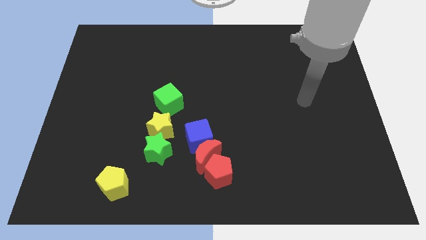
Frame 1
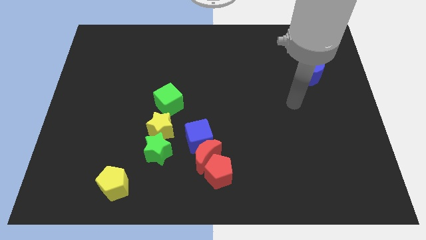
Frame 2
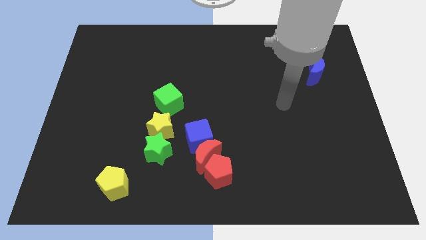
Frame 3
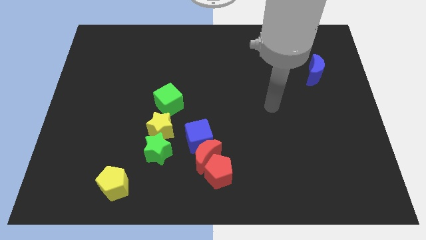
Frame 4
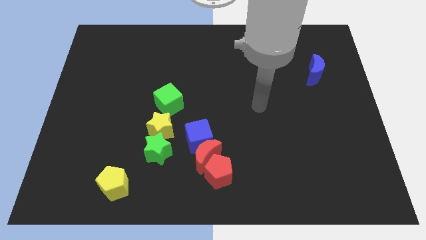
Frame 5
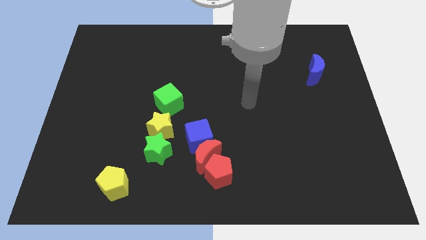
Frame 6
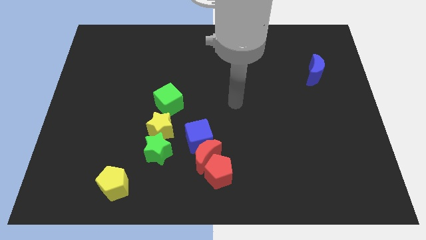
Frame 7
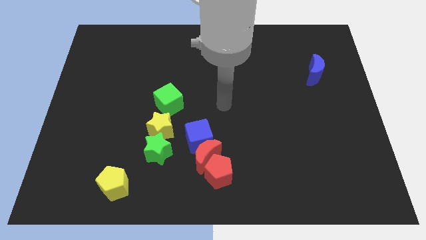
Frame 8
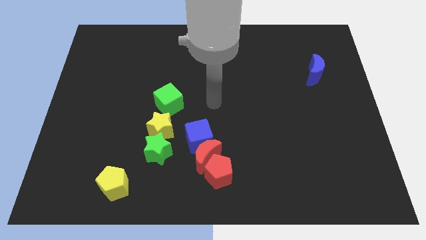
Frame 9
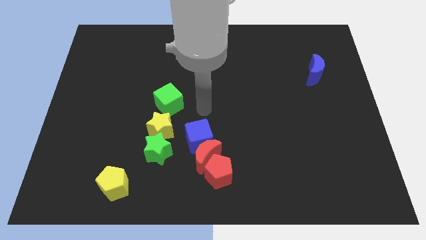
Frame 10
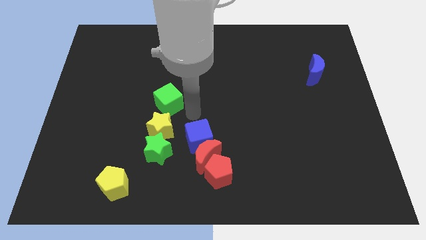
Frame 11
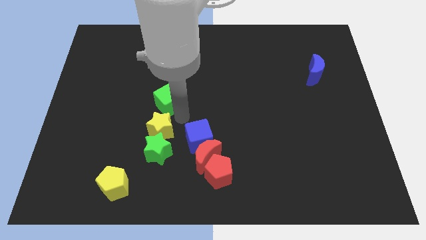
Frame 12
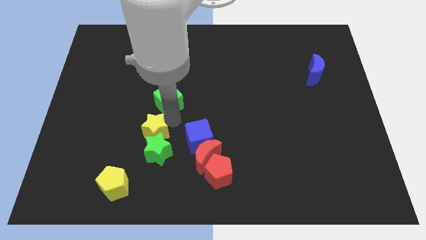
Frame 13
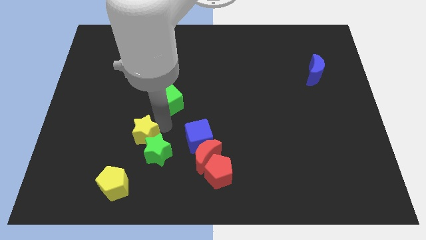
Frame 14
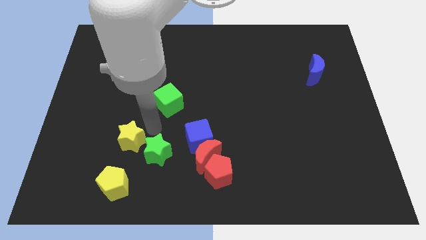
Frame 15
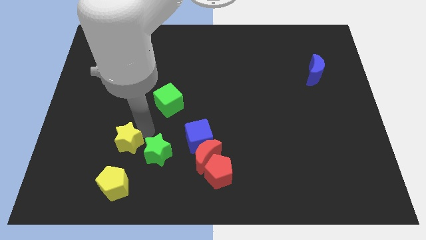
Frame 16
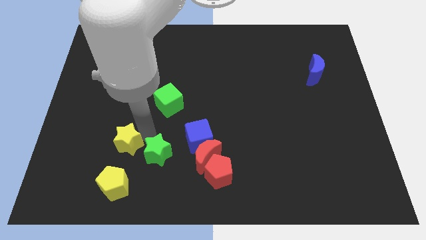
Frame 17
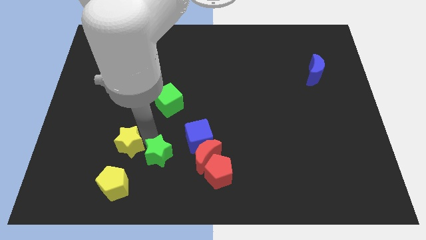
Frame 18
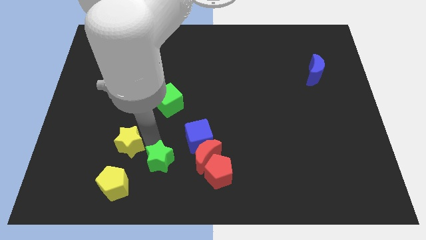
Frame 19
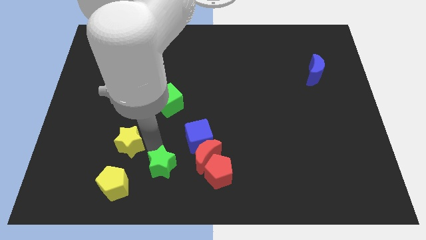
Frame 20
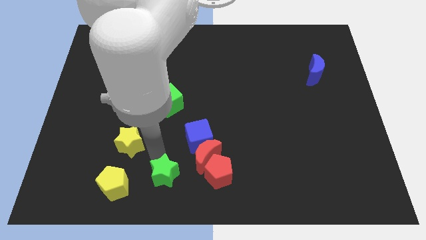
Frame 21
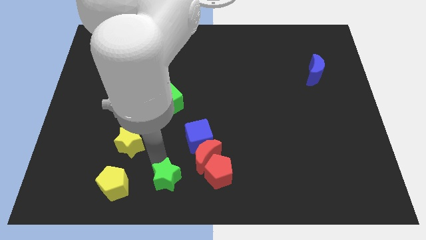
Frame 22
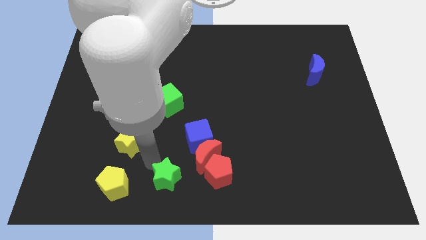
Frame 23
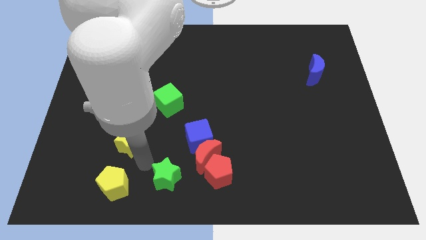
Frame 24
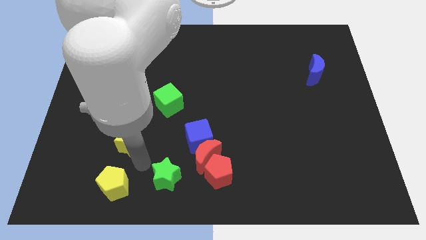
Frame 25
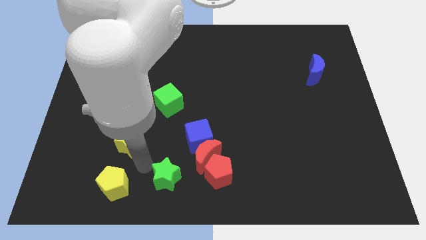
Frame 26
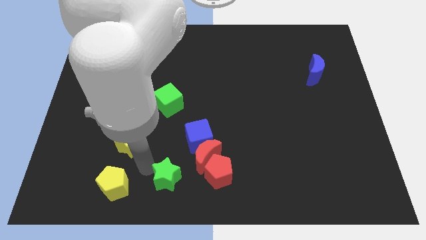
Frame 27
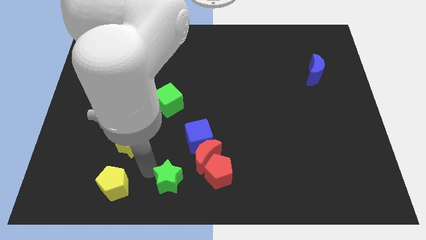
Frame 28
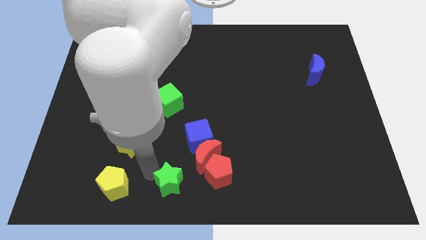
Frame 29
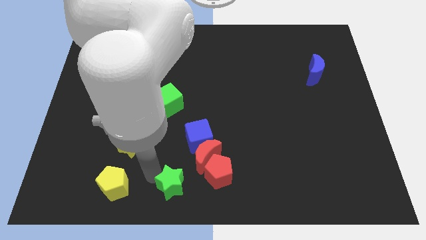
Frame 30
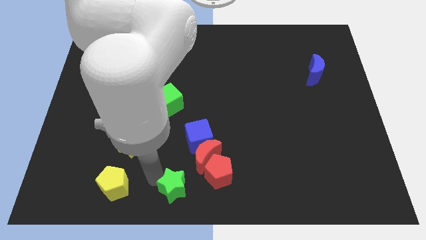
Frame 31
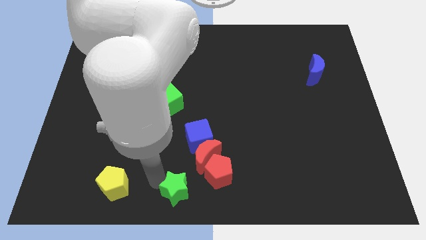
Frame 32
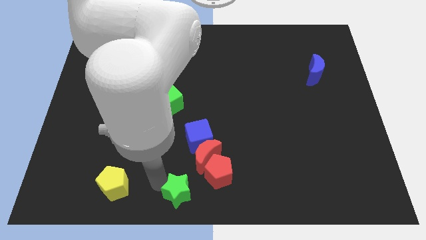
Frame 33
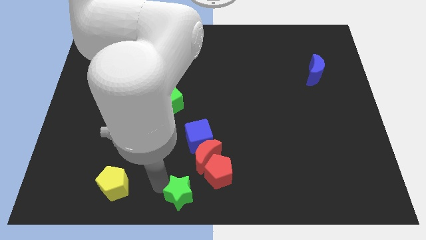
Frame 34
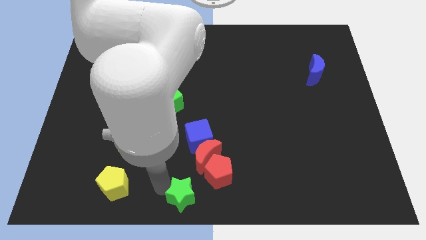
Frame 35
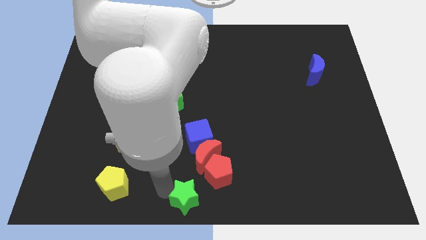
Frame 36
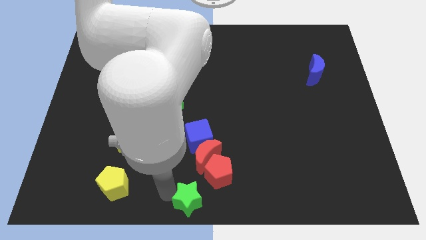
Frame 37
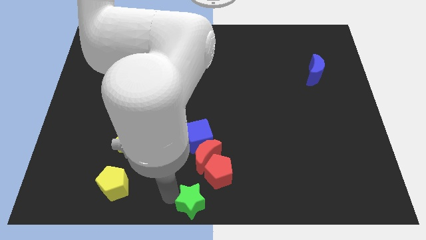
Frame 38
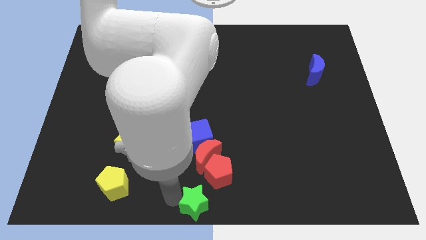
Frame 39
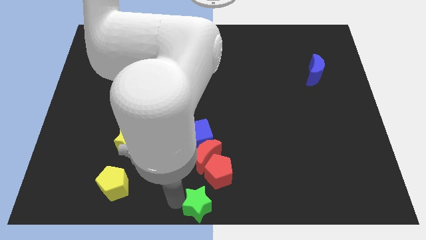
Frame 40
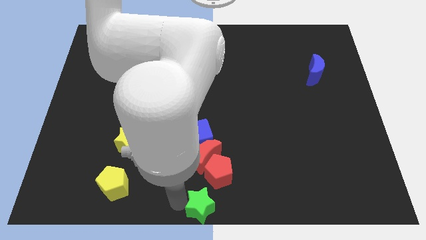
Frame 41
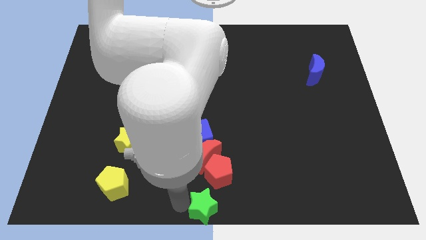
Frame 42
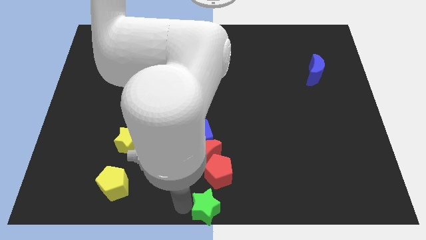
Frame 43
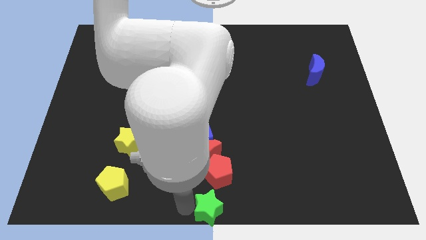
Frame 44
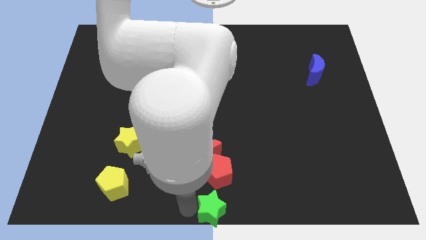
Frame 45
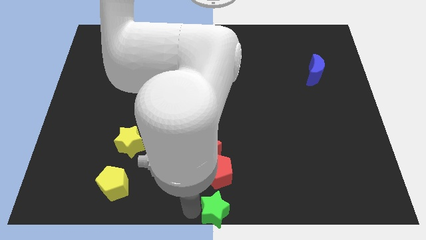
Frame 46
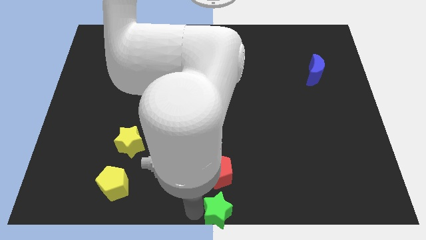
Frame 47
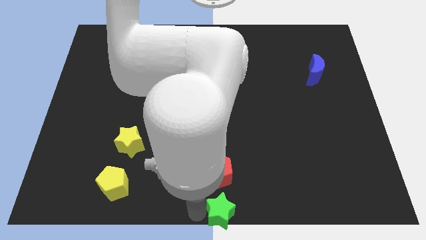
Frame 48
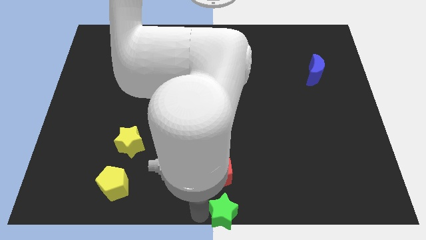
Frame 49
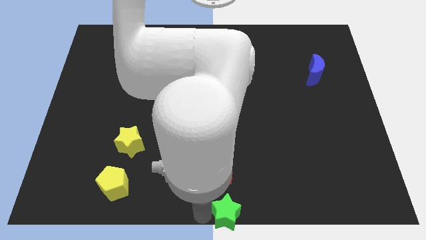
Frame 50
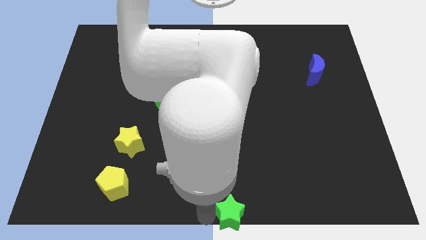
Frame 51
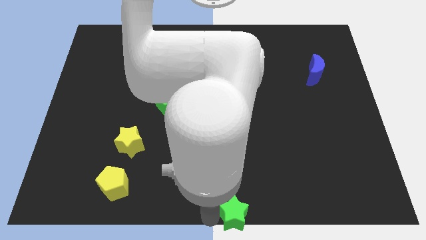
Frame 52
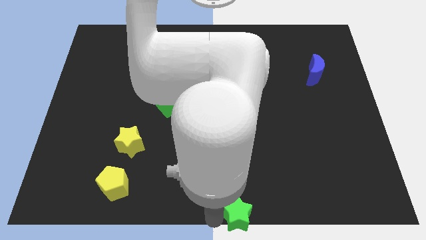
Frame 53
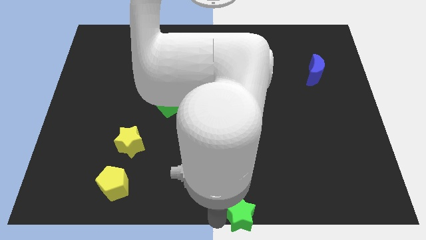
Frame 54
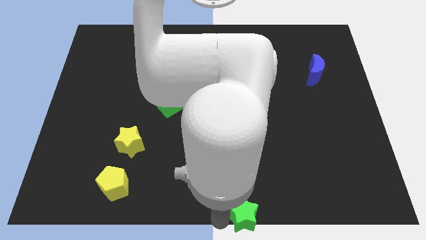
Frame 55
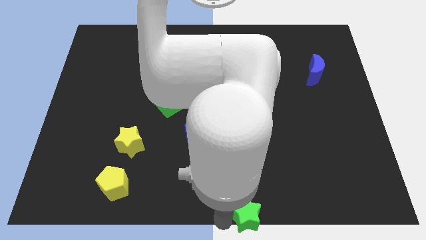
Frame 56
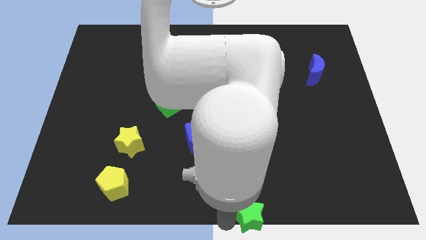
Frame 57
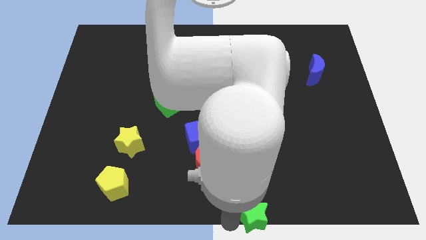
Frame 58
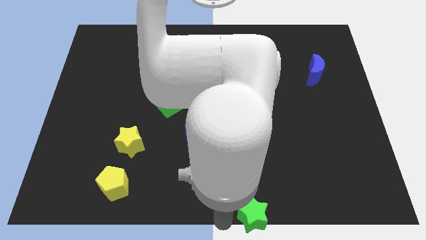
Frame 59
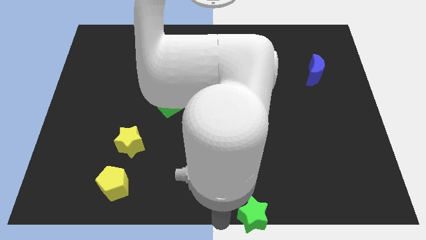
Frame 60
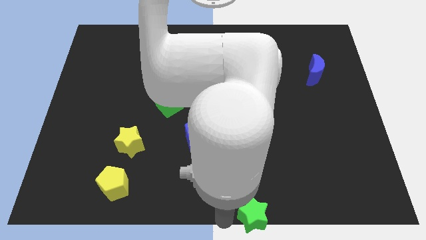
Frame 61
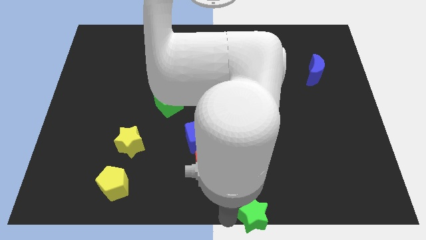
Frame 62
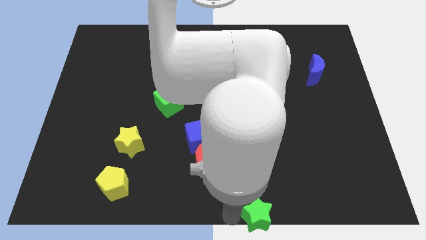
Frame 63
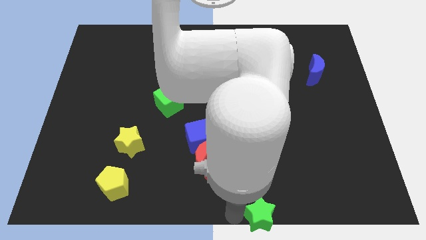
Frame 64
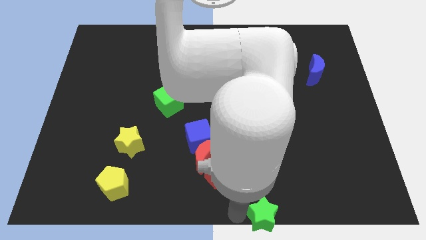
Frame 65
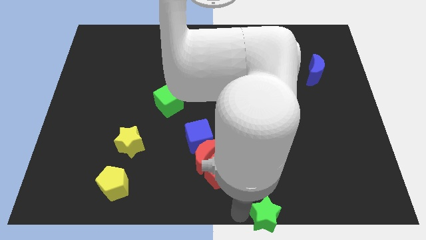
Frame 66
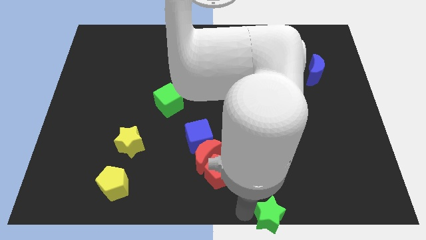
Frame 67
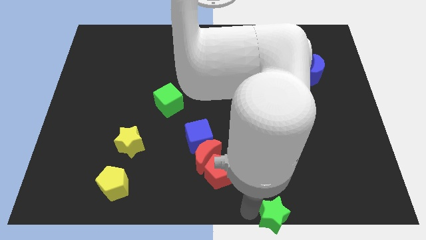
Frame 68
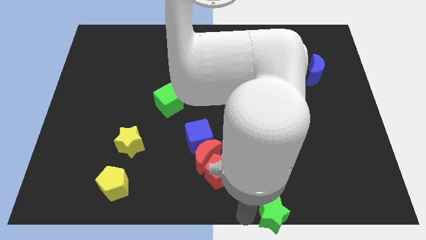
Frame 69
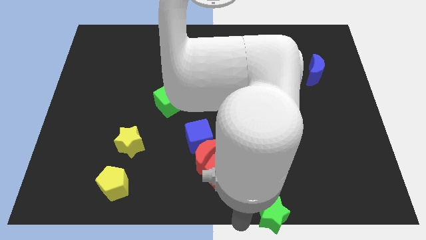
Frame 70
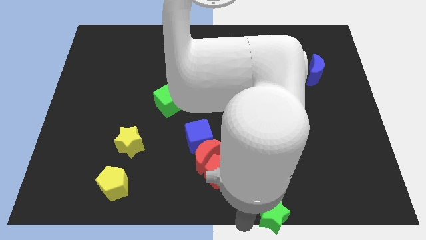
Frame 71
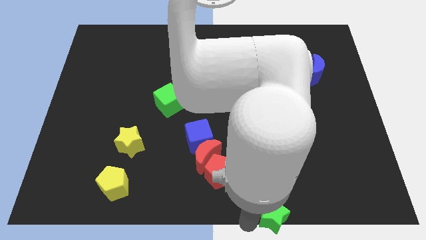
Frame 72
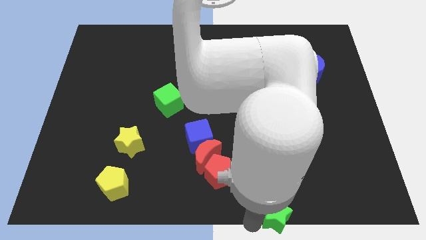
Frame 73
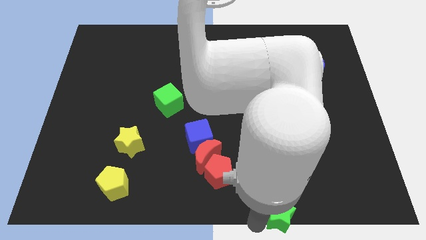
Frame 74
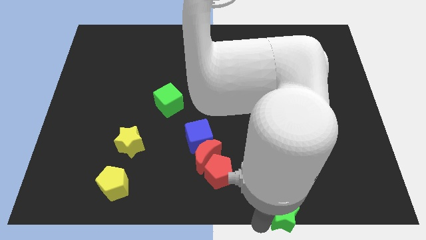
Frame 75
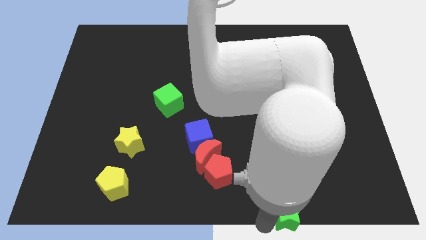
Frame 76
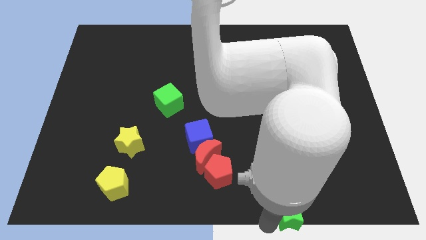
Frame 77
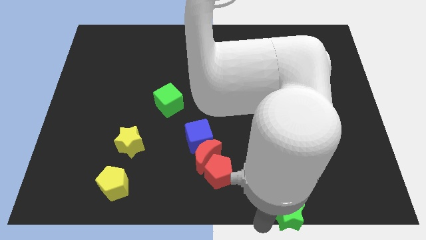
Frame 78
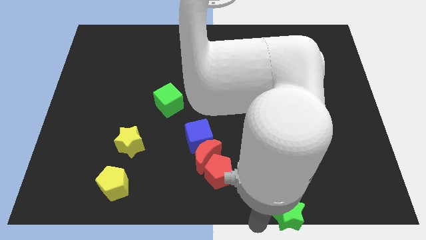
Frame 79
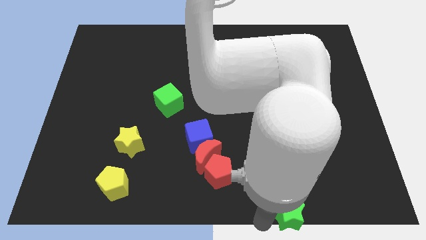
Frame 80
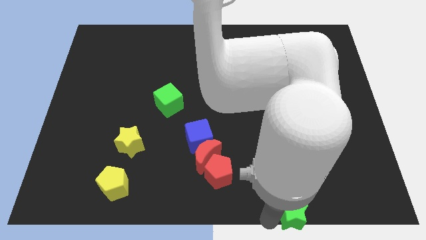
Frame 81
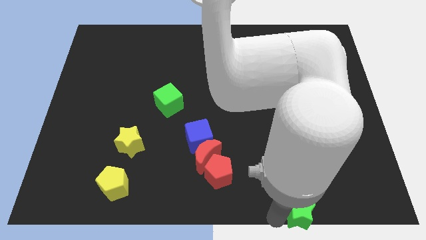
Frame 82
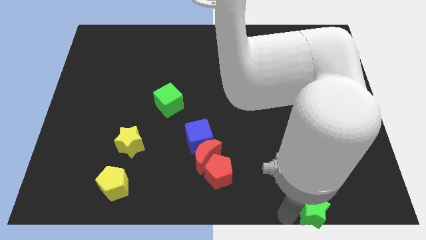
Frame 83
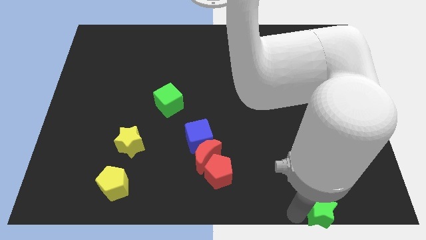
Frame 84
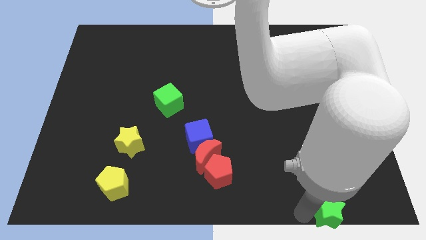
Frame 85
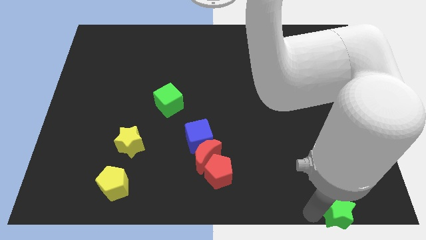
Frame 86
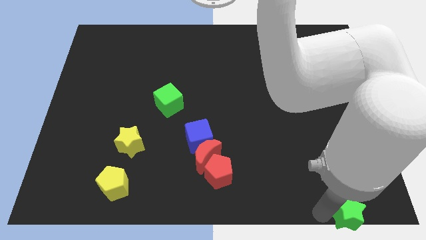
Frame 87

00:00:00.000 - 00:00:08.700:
push the green star to the bottom right of the board
